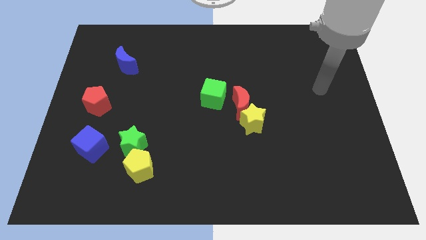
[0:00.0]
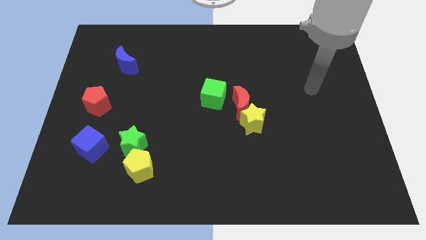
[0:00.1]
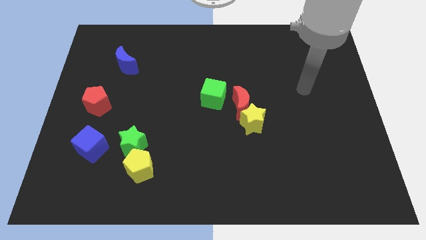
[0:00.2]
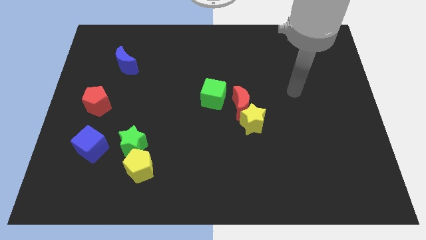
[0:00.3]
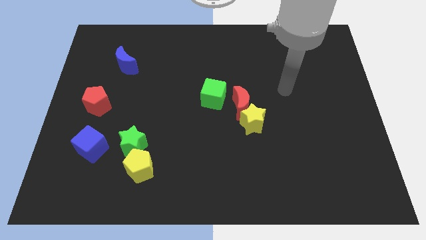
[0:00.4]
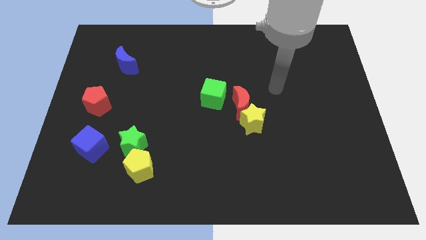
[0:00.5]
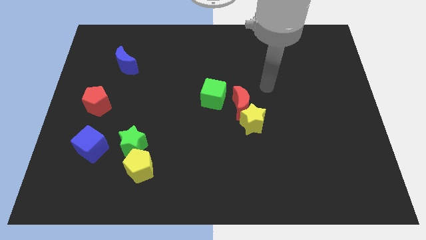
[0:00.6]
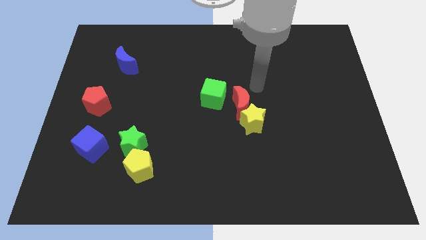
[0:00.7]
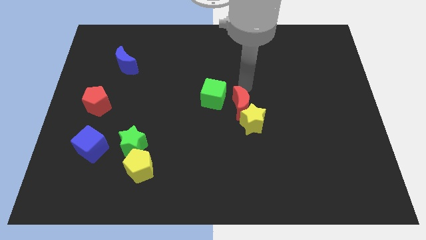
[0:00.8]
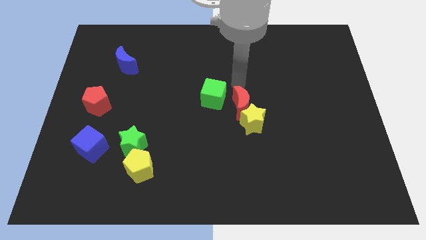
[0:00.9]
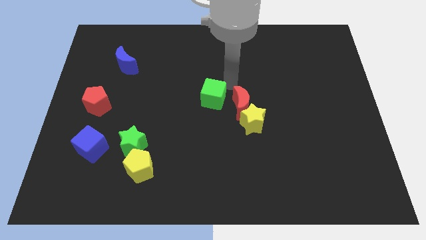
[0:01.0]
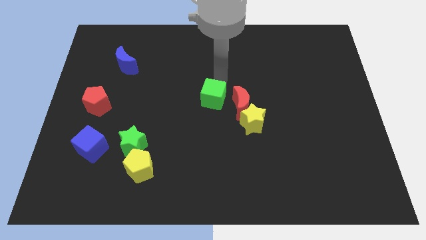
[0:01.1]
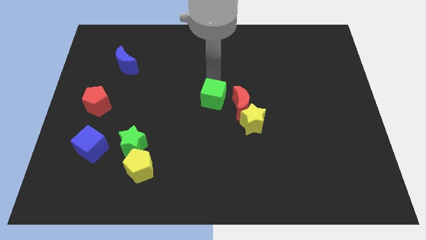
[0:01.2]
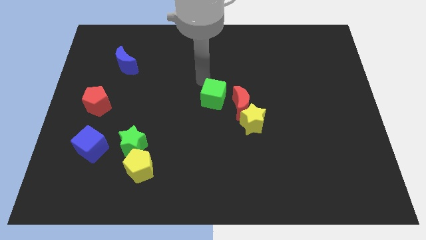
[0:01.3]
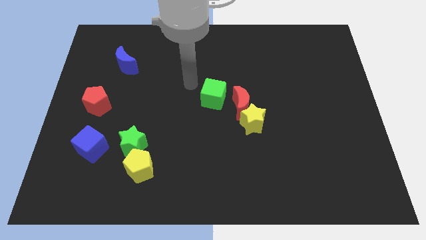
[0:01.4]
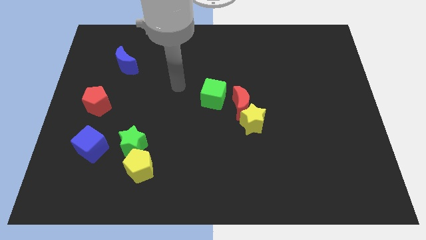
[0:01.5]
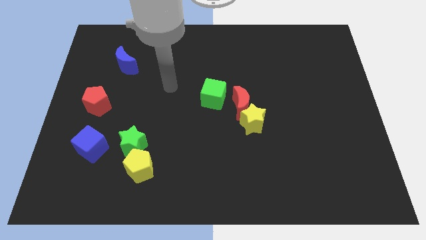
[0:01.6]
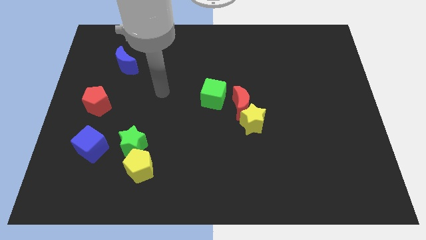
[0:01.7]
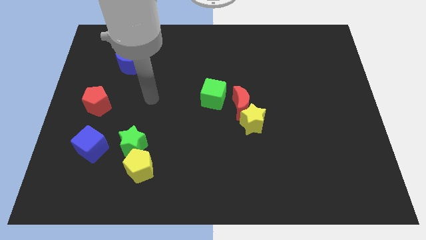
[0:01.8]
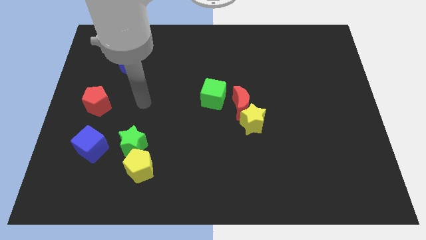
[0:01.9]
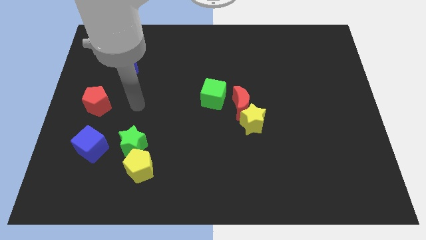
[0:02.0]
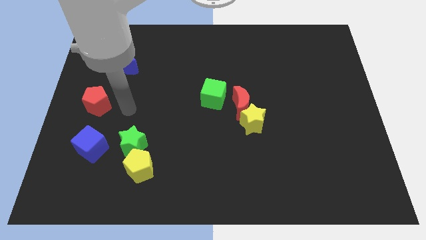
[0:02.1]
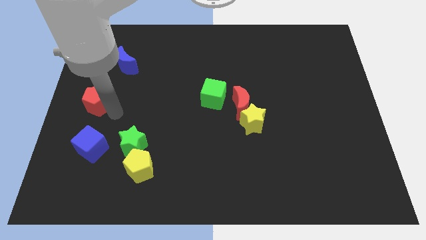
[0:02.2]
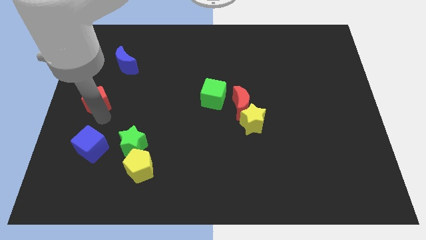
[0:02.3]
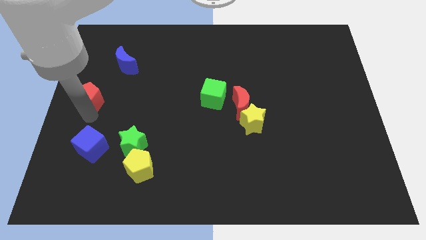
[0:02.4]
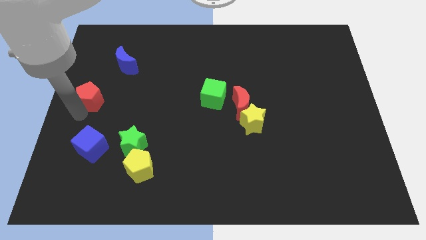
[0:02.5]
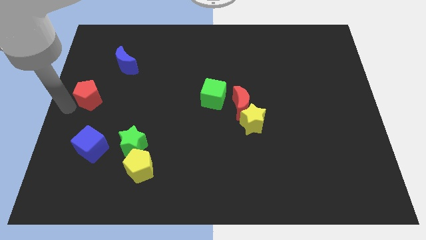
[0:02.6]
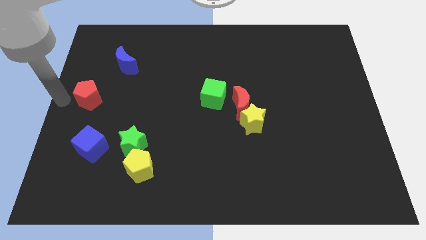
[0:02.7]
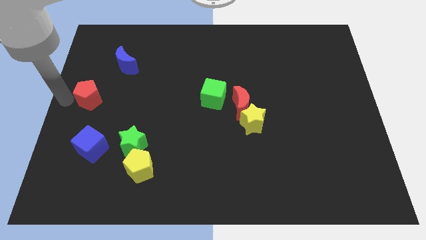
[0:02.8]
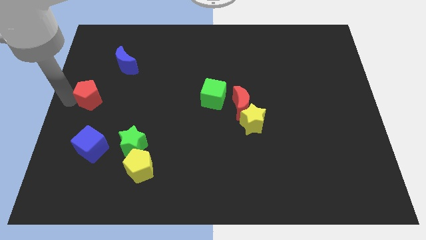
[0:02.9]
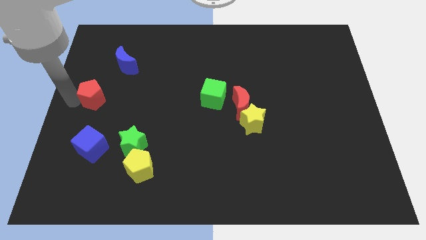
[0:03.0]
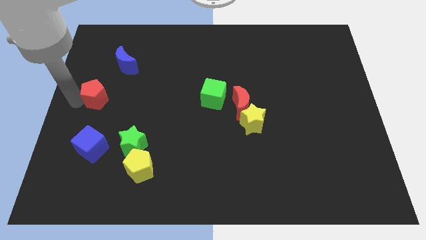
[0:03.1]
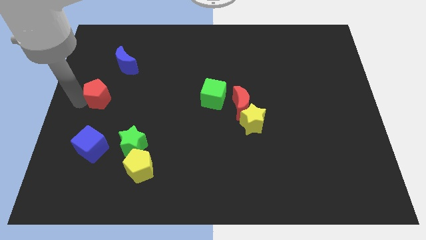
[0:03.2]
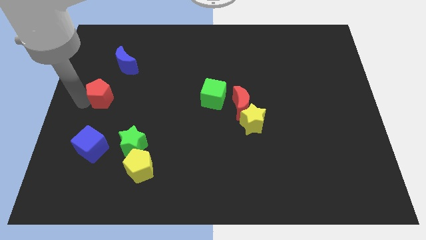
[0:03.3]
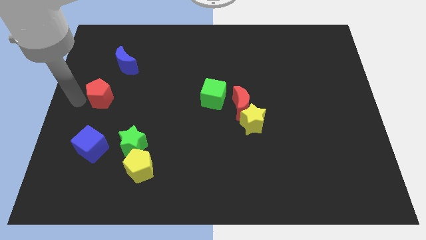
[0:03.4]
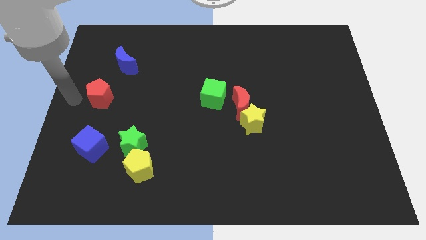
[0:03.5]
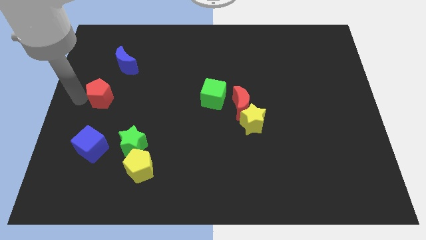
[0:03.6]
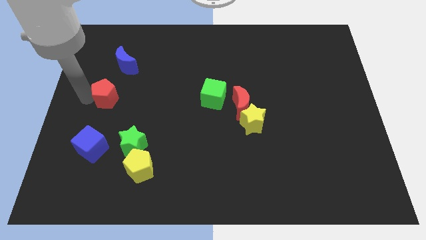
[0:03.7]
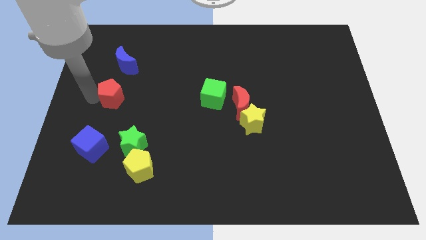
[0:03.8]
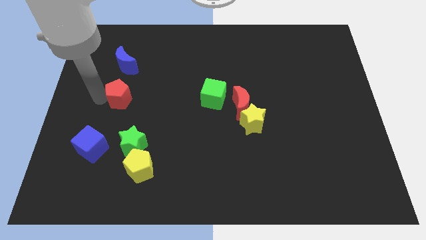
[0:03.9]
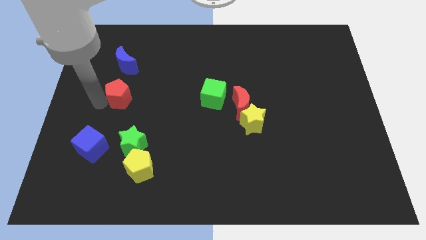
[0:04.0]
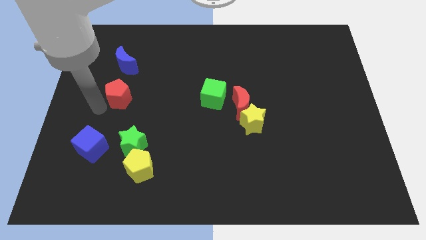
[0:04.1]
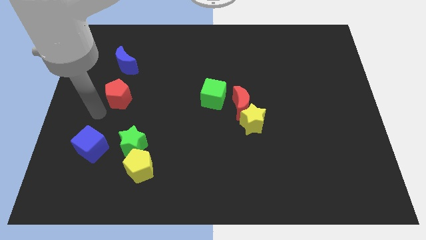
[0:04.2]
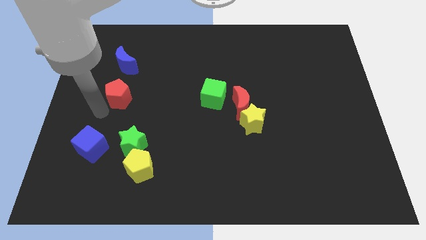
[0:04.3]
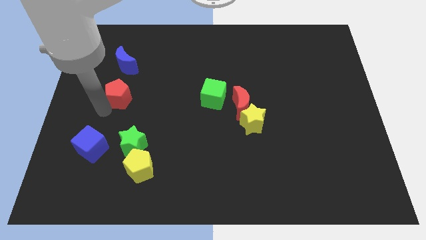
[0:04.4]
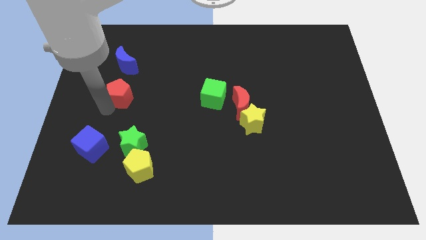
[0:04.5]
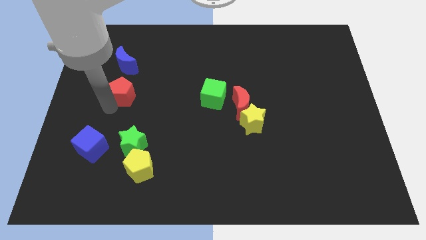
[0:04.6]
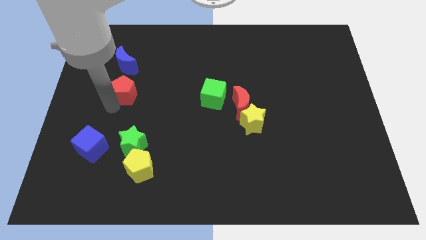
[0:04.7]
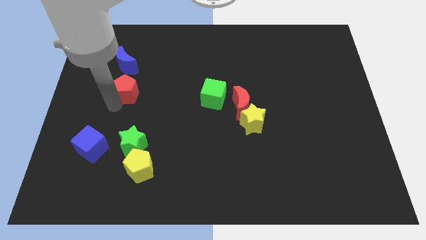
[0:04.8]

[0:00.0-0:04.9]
slightly move the red pentagon up and then to the right

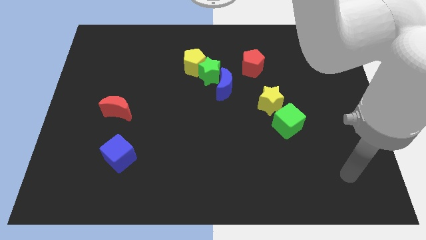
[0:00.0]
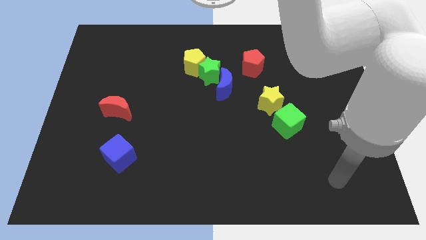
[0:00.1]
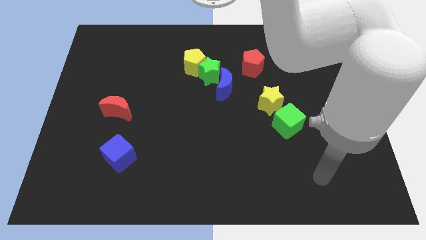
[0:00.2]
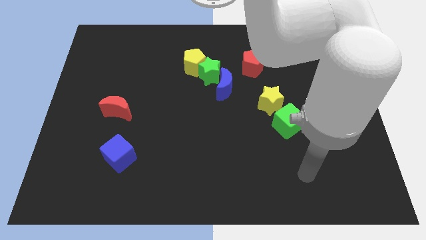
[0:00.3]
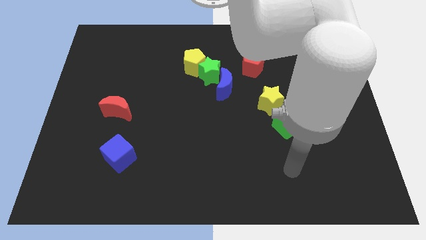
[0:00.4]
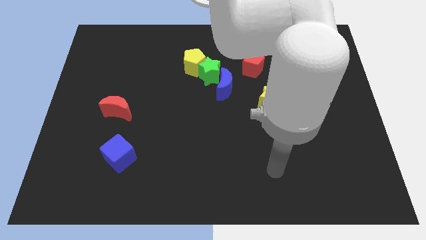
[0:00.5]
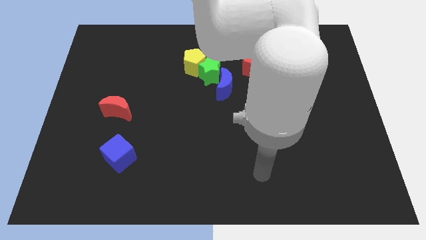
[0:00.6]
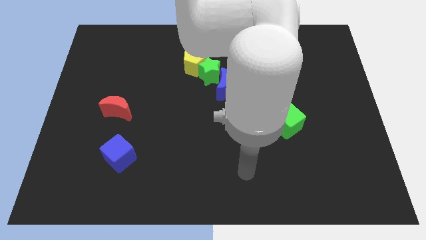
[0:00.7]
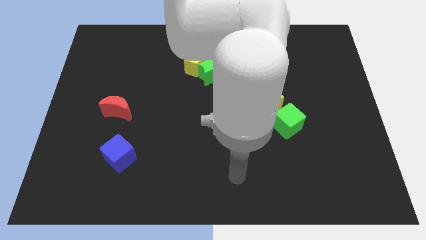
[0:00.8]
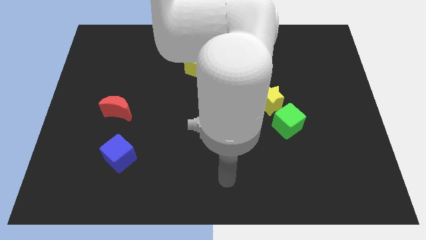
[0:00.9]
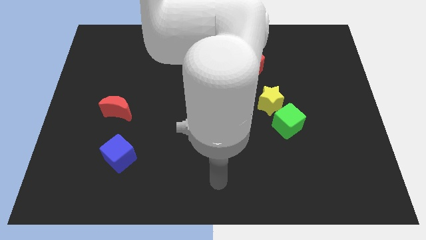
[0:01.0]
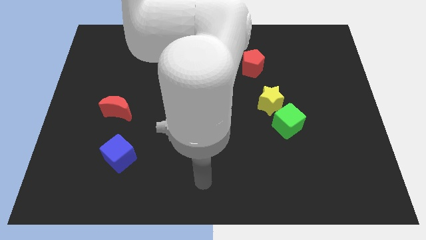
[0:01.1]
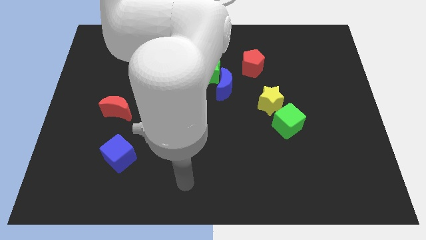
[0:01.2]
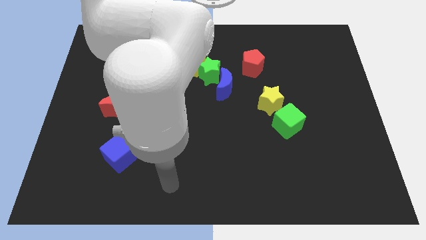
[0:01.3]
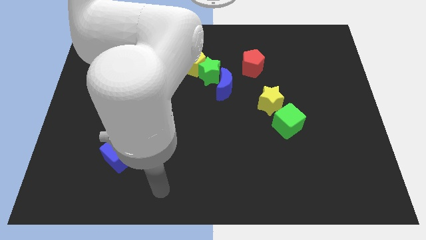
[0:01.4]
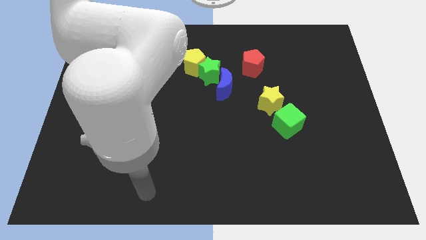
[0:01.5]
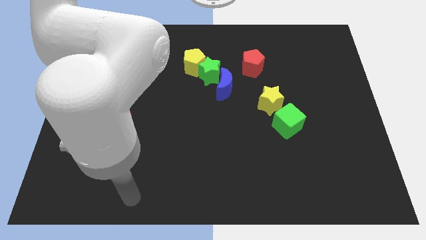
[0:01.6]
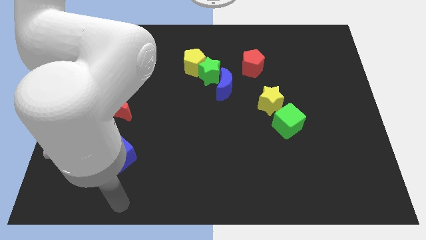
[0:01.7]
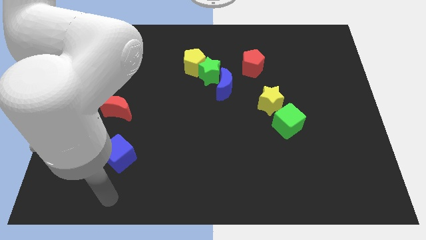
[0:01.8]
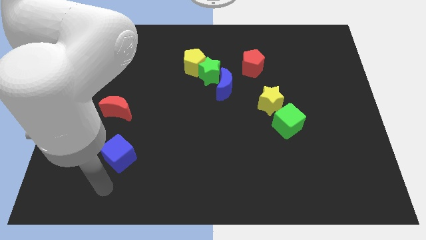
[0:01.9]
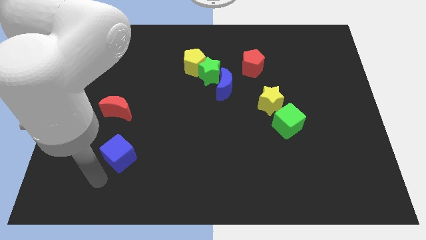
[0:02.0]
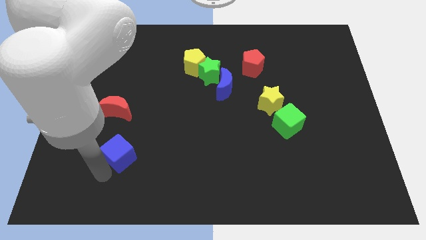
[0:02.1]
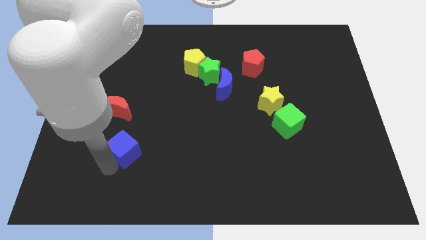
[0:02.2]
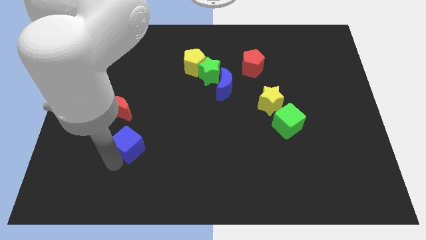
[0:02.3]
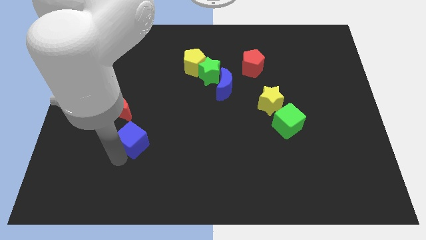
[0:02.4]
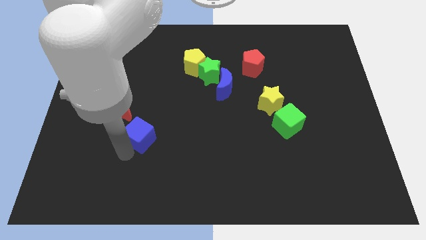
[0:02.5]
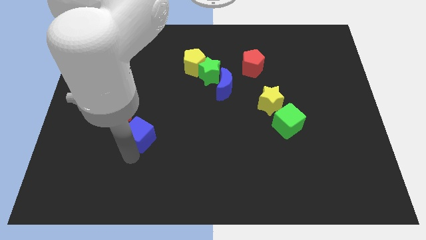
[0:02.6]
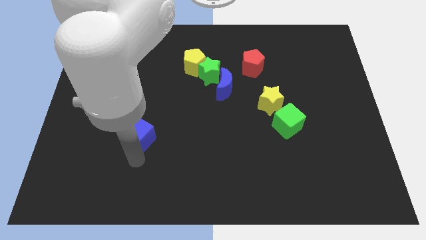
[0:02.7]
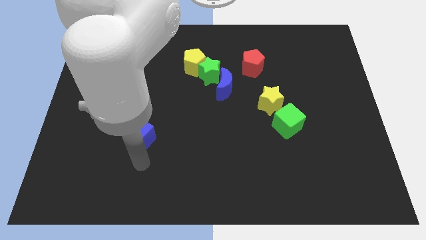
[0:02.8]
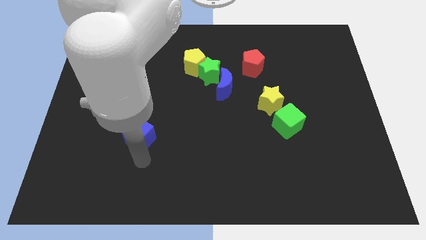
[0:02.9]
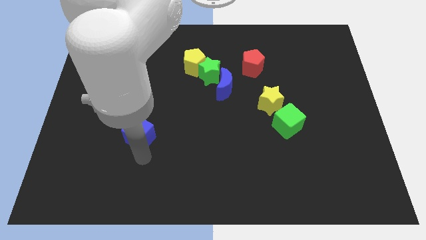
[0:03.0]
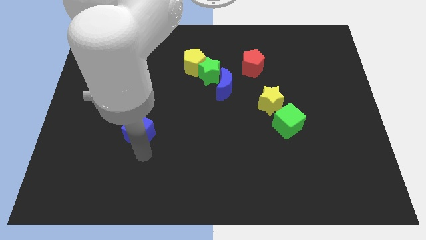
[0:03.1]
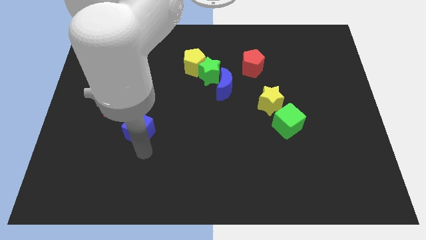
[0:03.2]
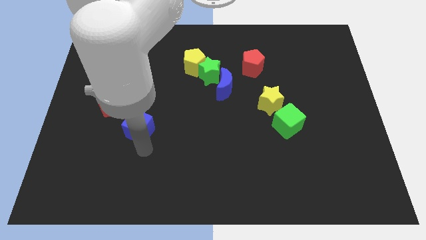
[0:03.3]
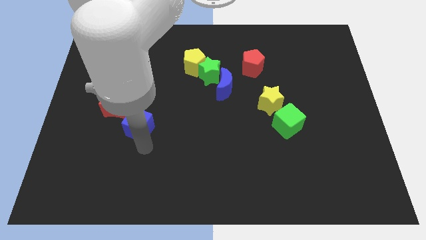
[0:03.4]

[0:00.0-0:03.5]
slide the blue cube a little upwards
